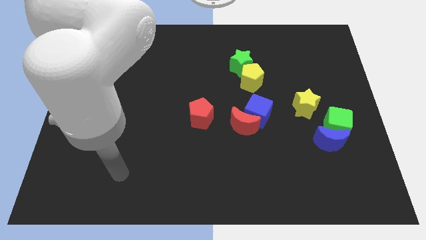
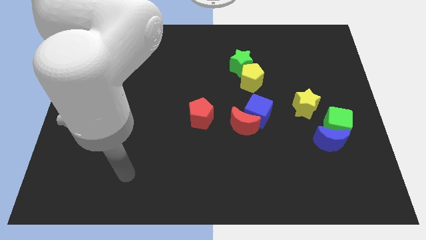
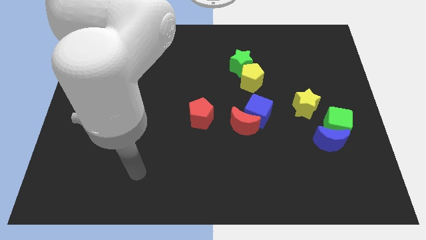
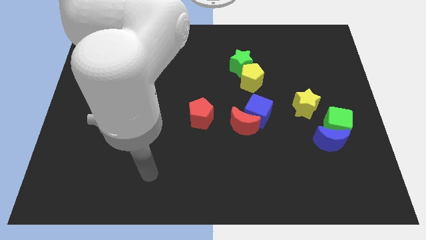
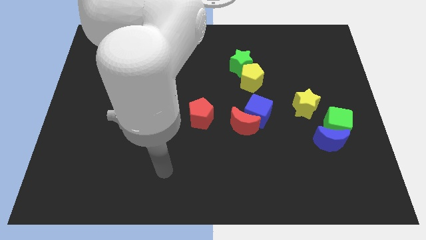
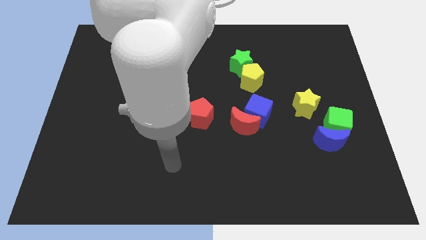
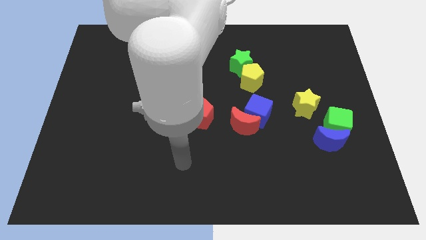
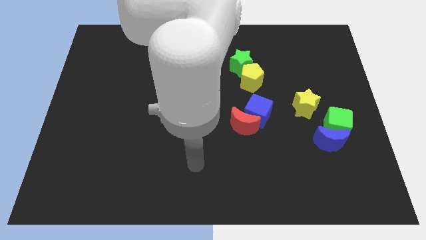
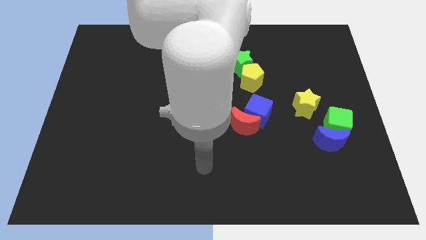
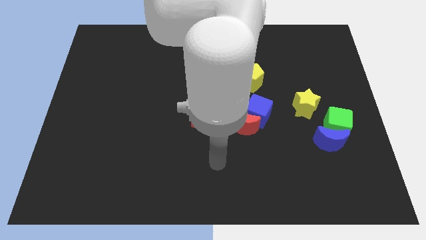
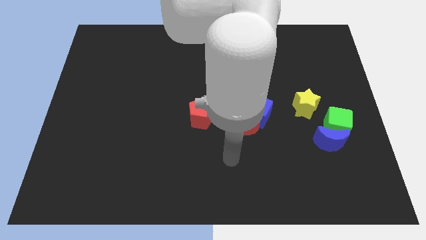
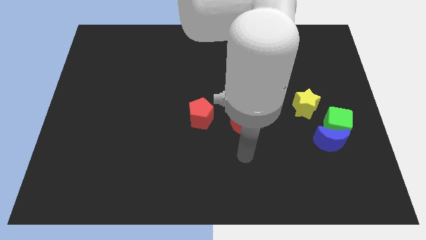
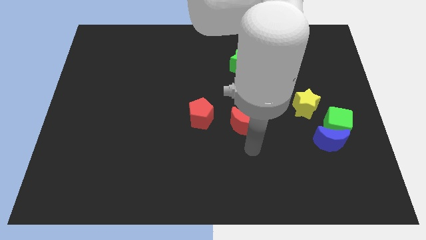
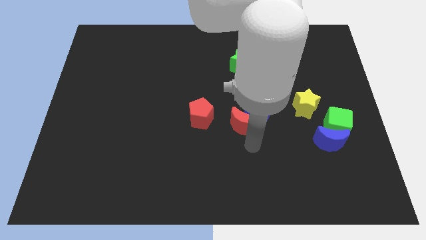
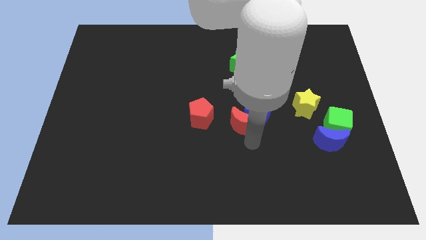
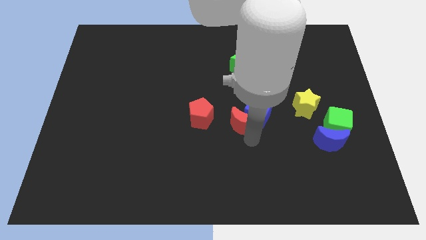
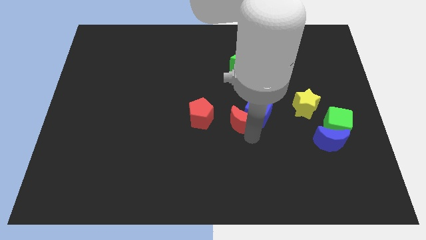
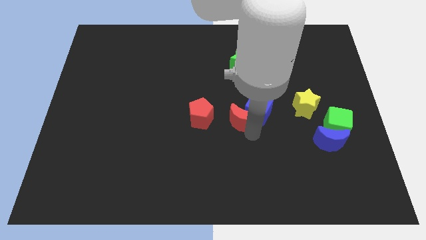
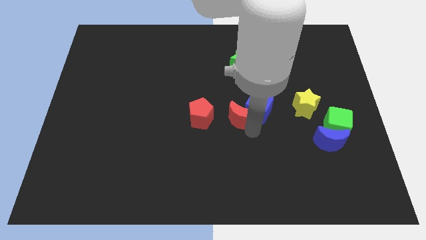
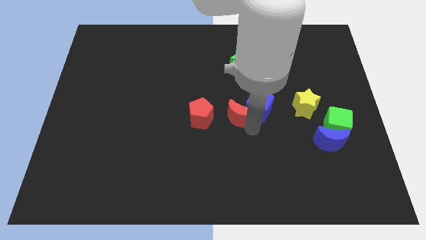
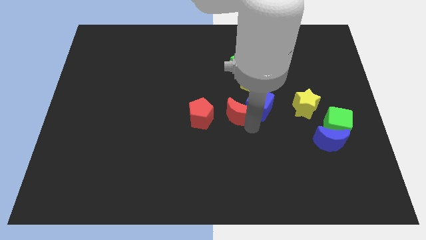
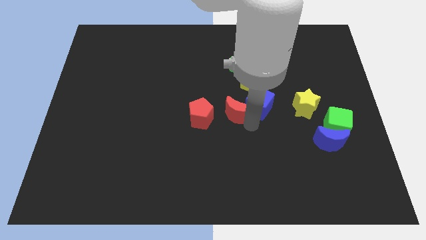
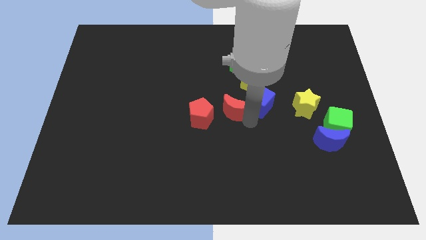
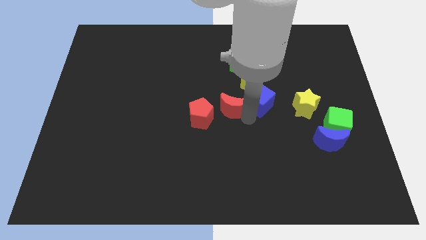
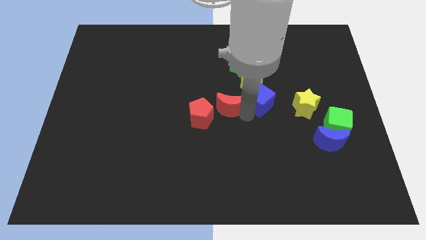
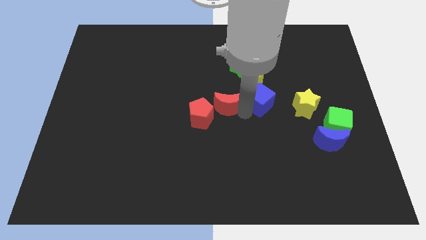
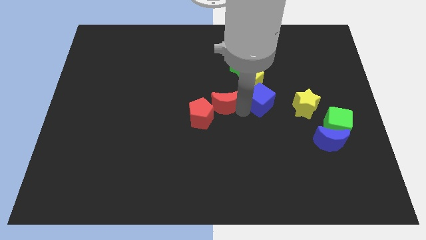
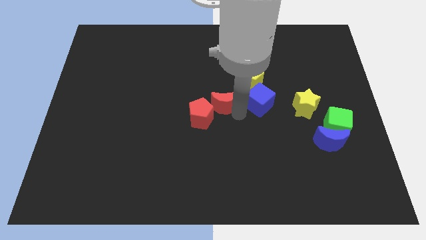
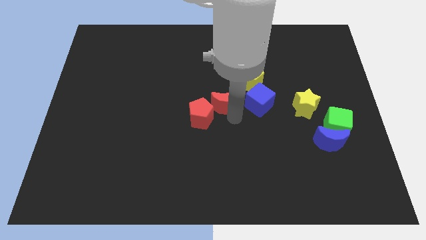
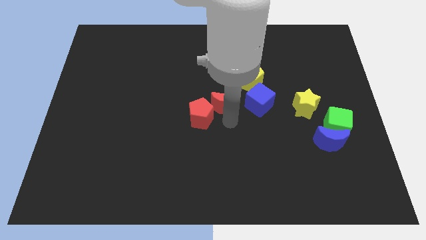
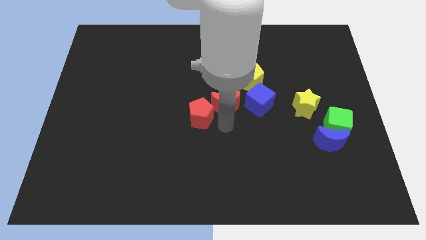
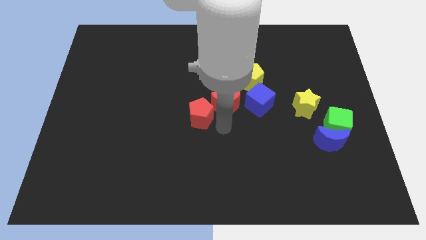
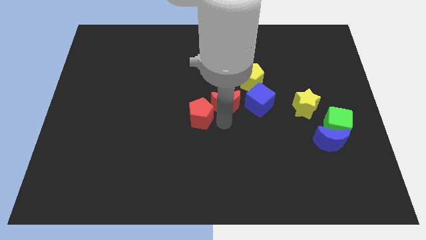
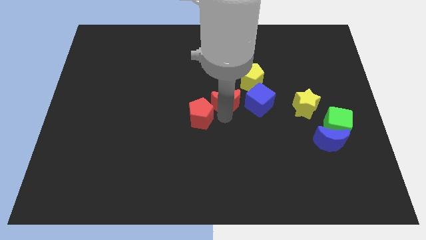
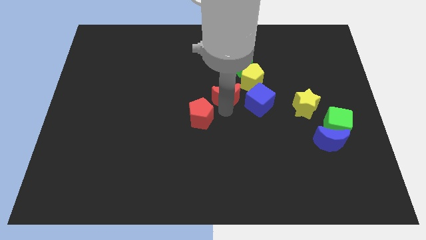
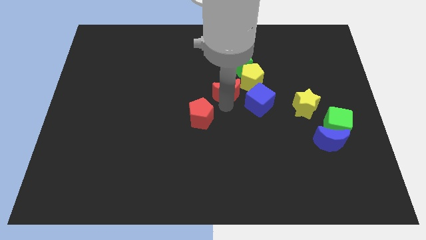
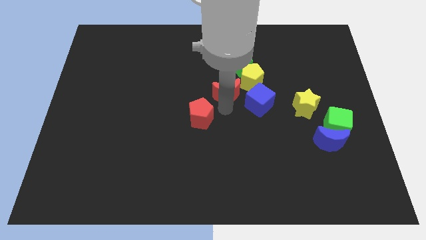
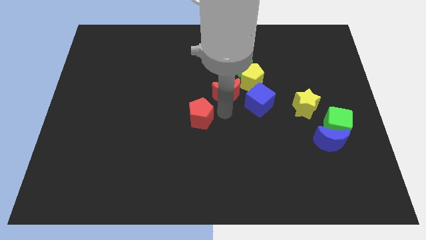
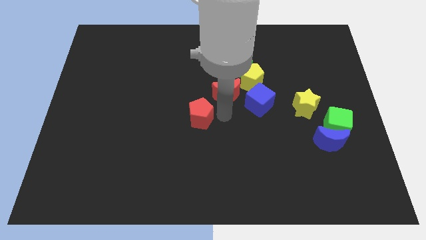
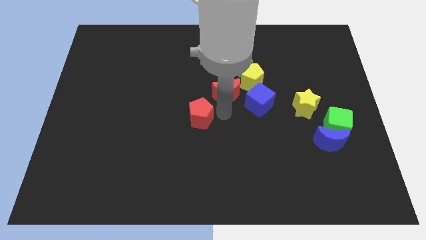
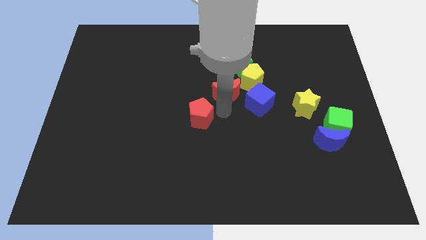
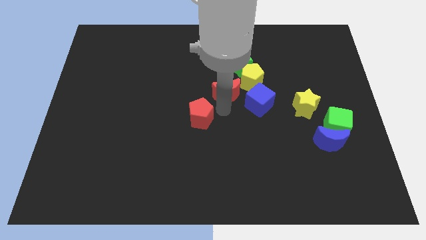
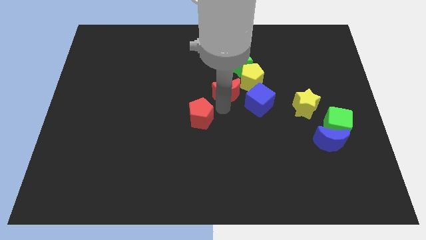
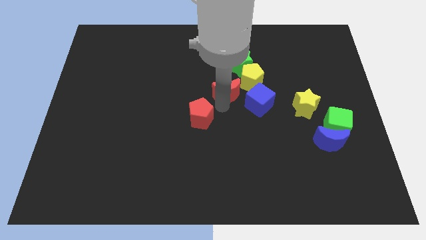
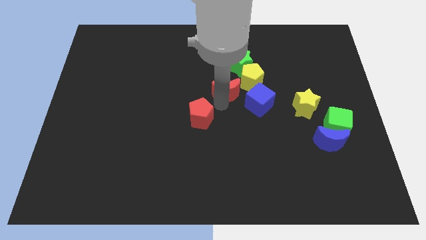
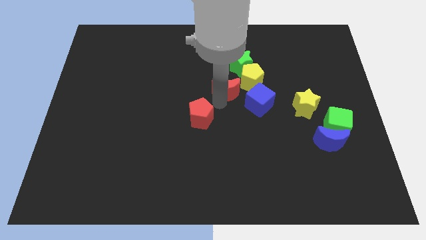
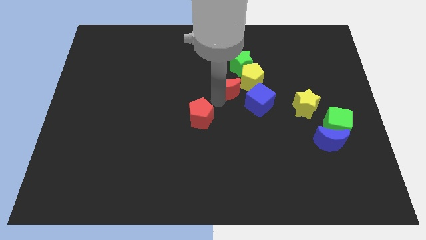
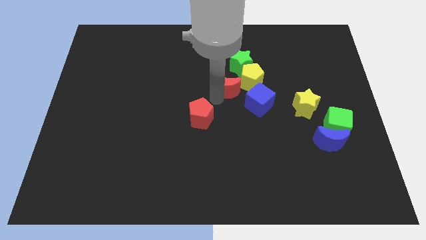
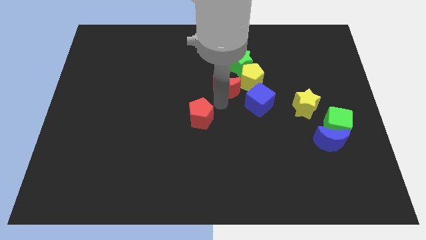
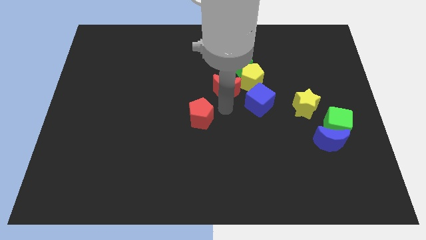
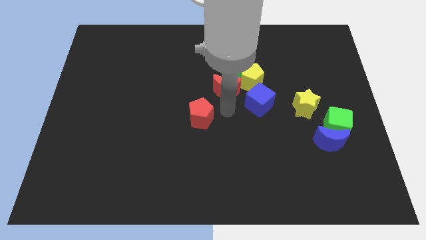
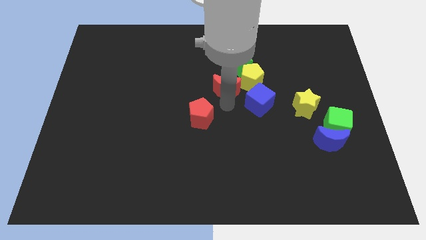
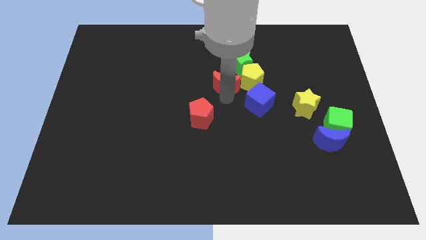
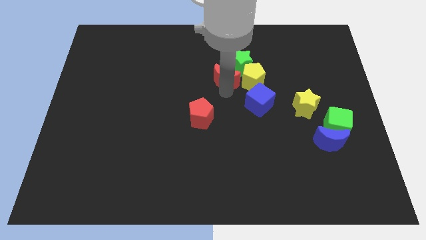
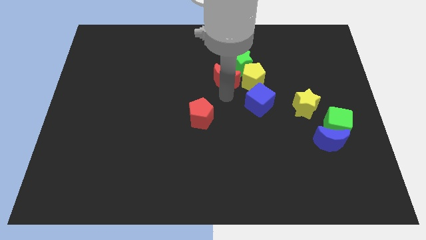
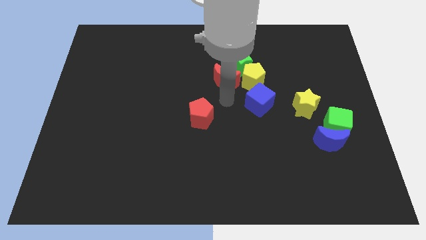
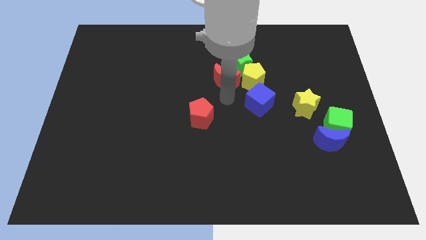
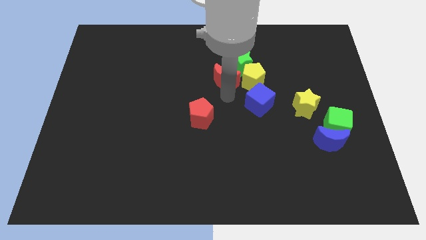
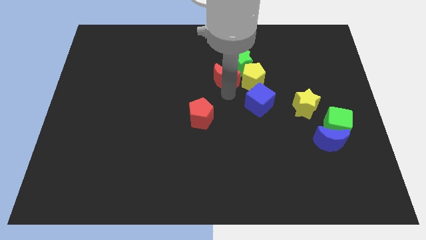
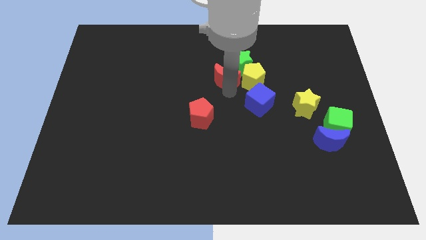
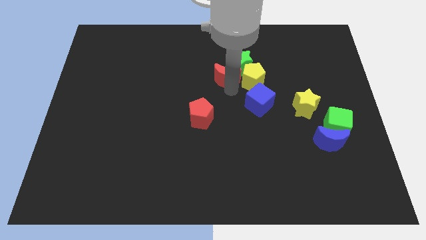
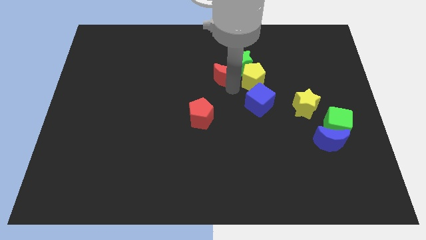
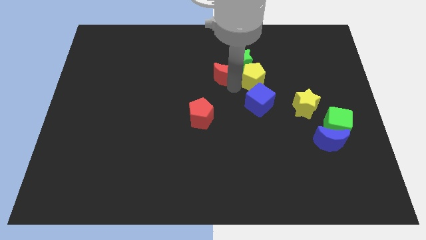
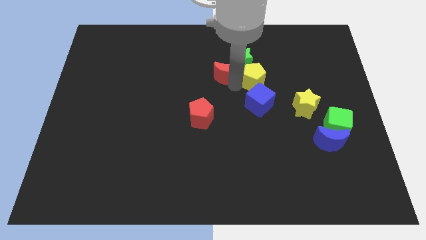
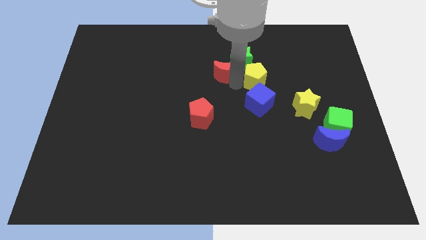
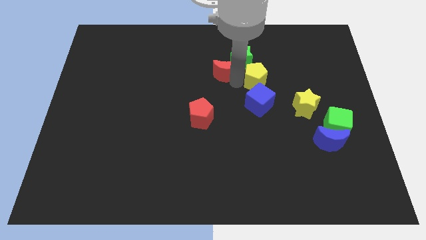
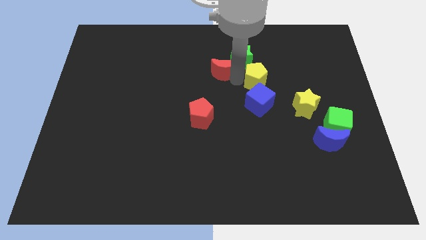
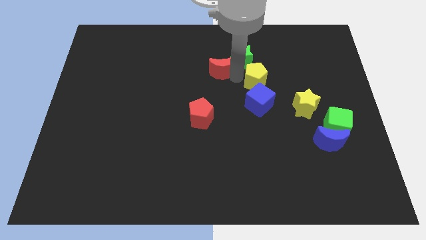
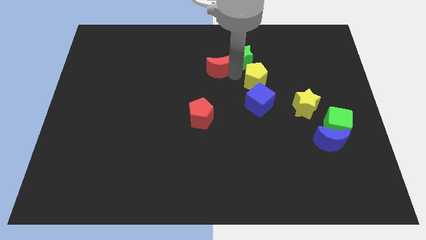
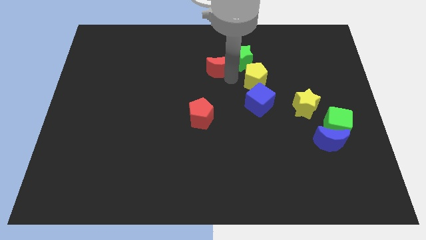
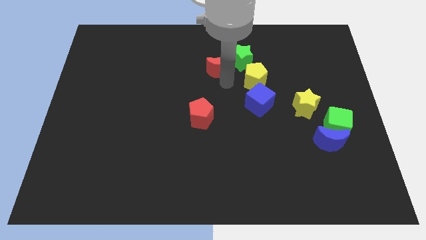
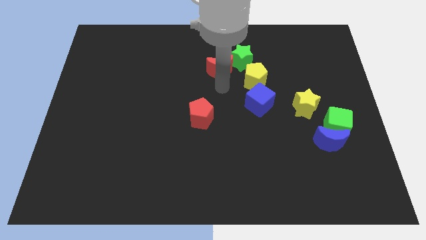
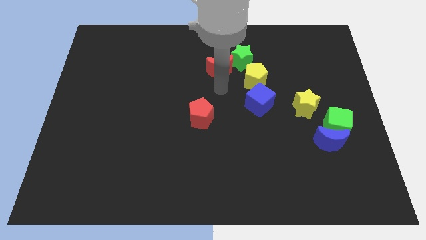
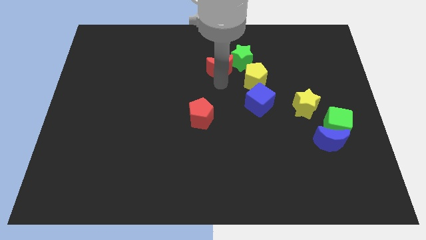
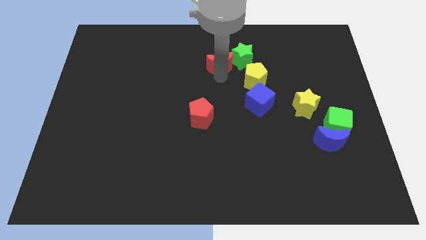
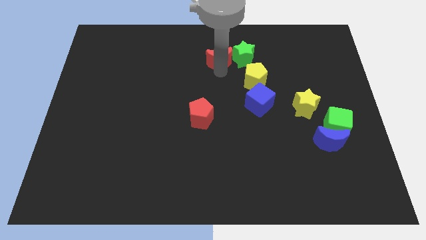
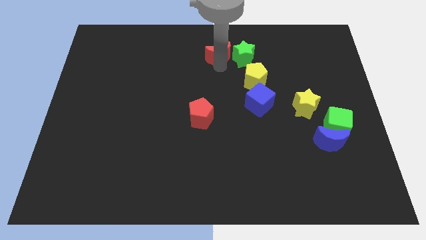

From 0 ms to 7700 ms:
push the red moon to the top side
